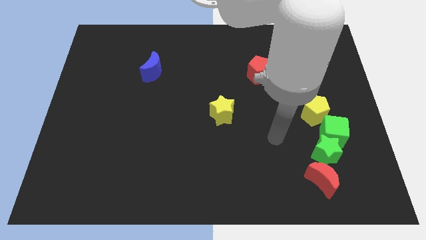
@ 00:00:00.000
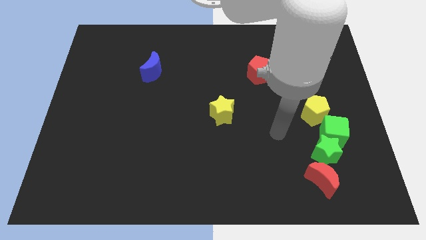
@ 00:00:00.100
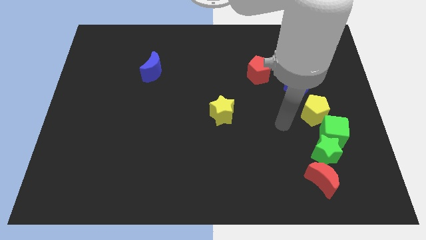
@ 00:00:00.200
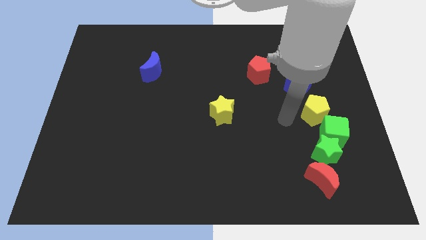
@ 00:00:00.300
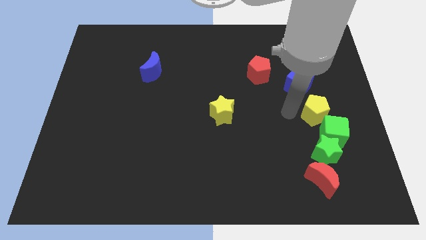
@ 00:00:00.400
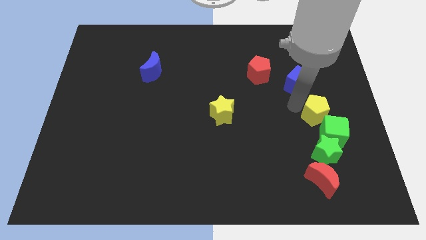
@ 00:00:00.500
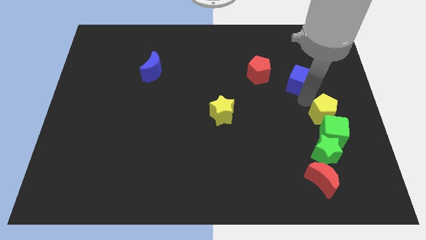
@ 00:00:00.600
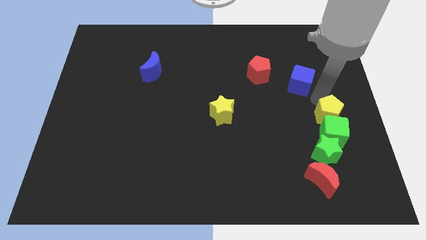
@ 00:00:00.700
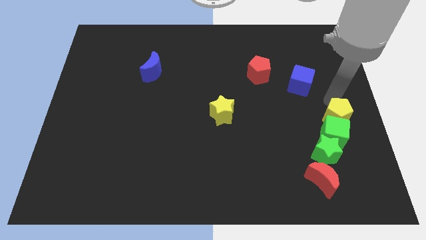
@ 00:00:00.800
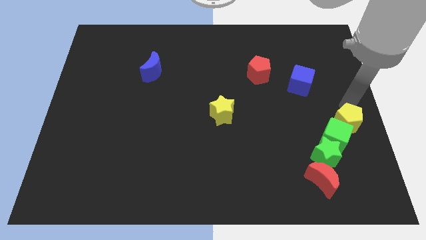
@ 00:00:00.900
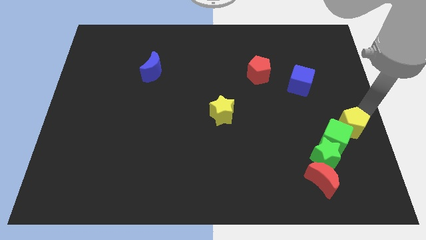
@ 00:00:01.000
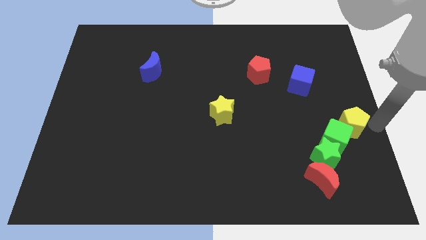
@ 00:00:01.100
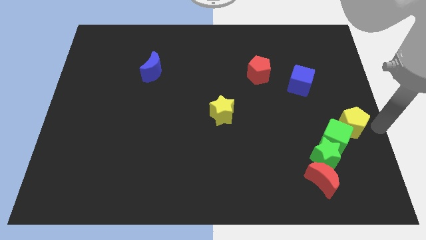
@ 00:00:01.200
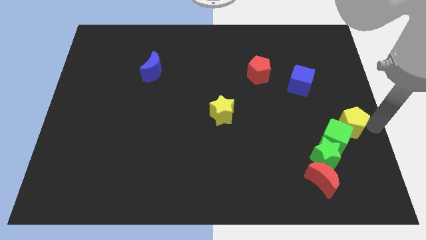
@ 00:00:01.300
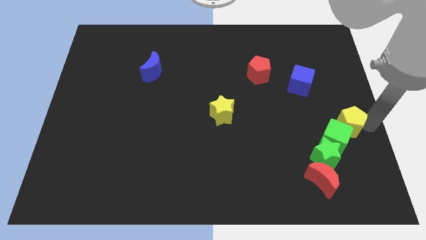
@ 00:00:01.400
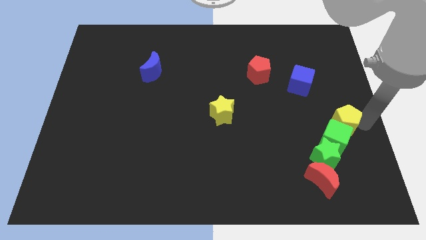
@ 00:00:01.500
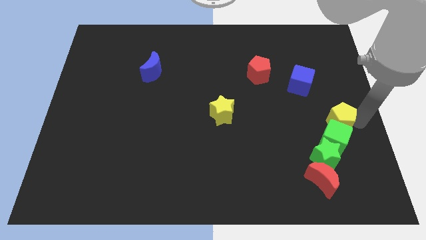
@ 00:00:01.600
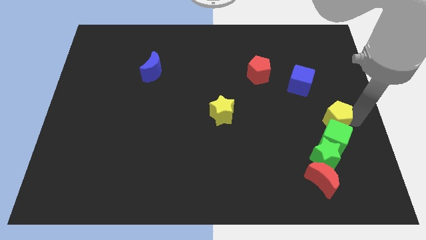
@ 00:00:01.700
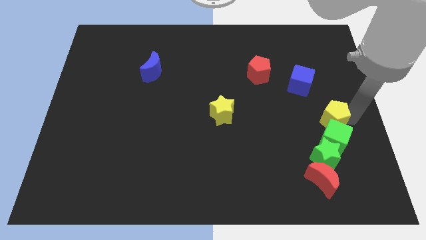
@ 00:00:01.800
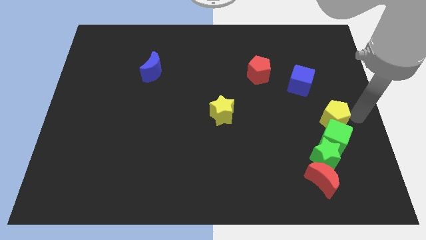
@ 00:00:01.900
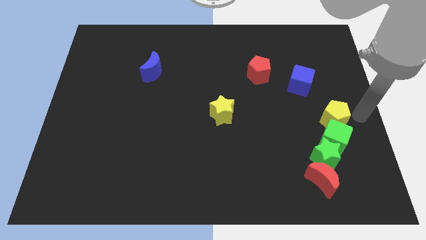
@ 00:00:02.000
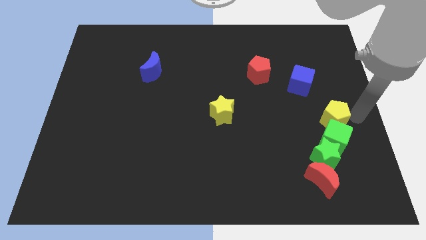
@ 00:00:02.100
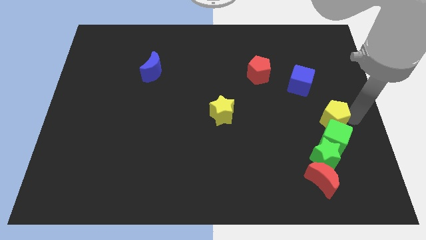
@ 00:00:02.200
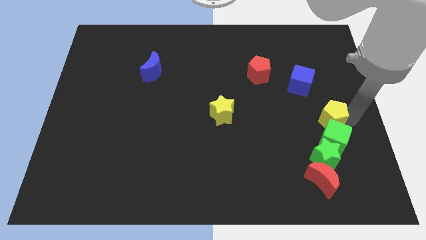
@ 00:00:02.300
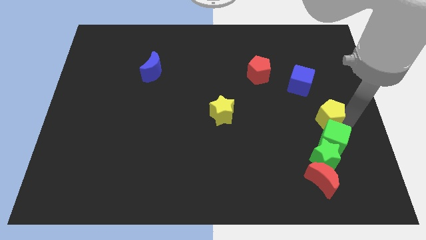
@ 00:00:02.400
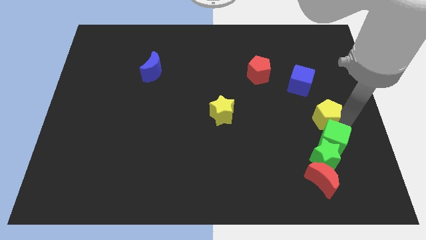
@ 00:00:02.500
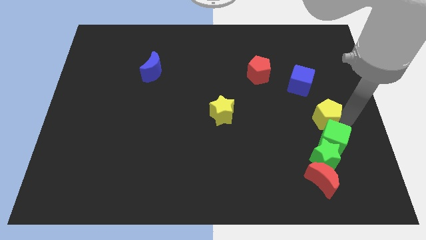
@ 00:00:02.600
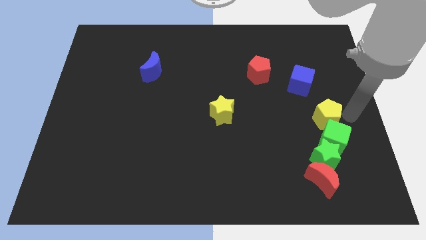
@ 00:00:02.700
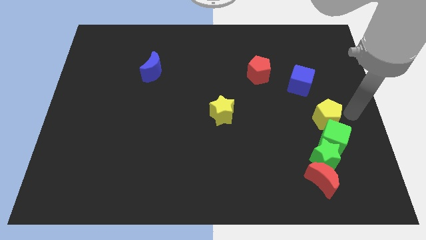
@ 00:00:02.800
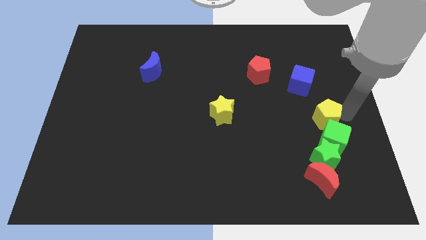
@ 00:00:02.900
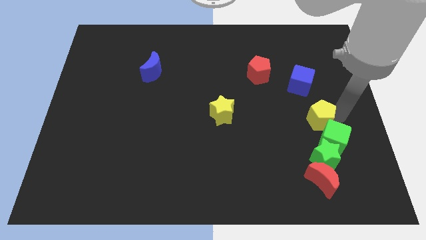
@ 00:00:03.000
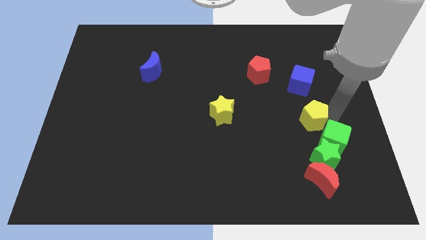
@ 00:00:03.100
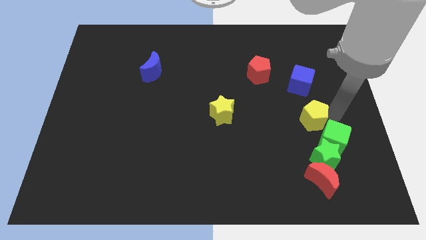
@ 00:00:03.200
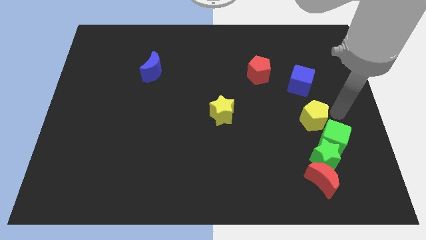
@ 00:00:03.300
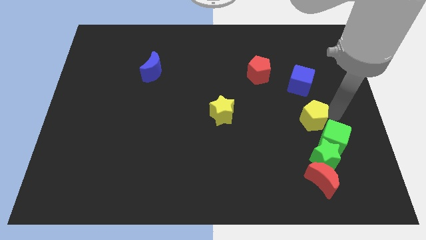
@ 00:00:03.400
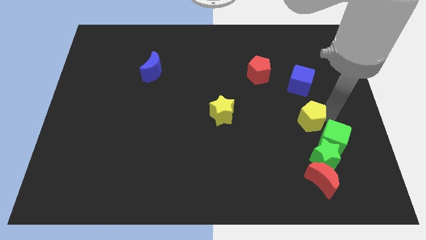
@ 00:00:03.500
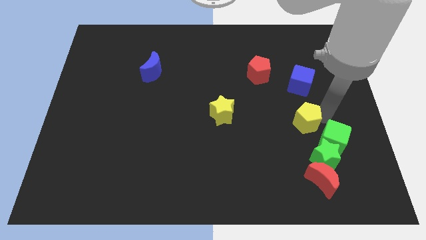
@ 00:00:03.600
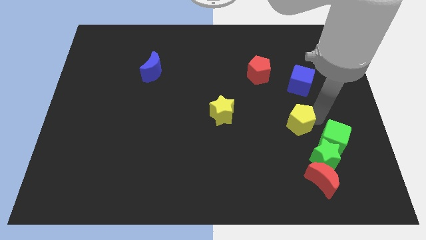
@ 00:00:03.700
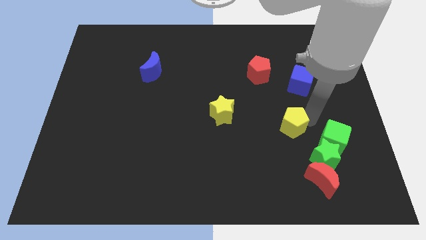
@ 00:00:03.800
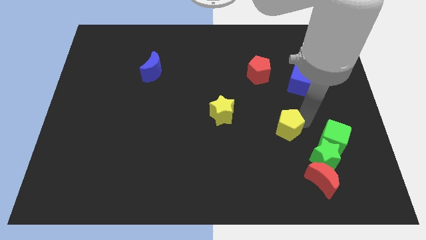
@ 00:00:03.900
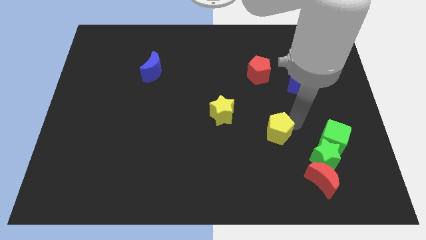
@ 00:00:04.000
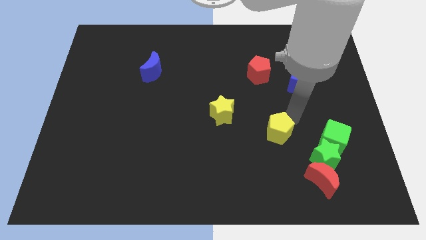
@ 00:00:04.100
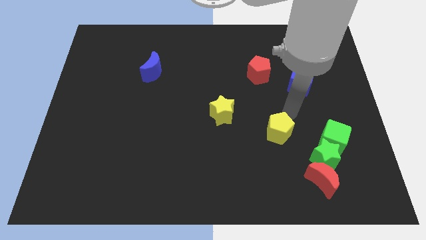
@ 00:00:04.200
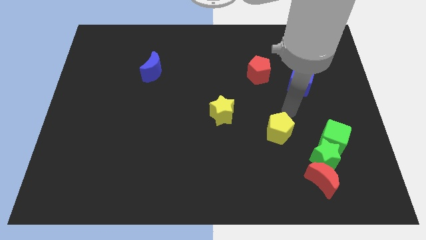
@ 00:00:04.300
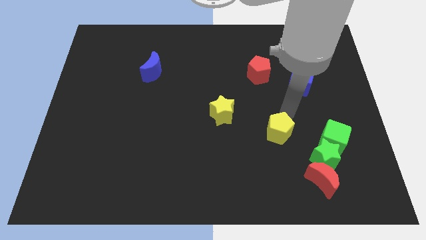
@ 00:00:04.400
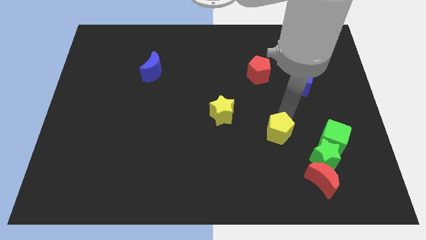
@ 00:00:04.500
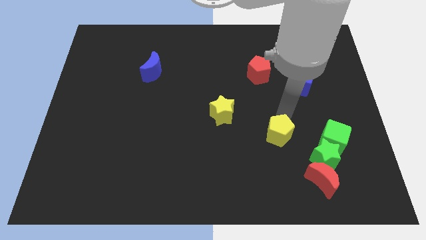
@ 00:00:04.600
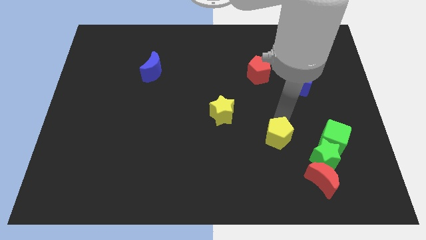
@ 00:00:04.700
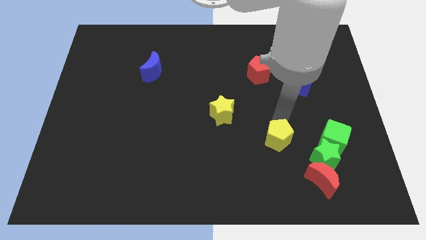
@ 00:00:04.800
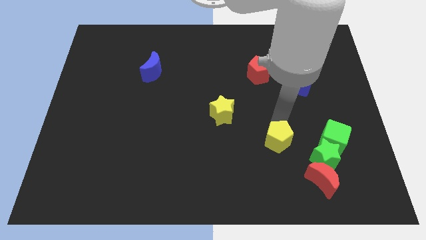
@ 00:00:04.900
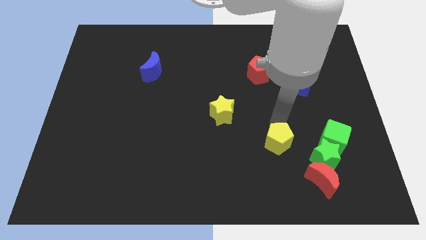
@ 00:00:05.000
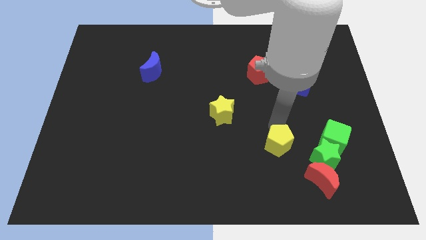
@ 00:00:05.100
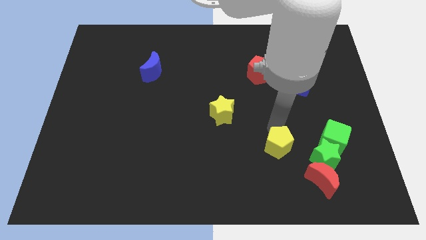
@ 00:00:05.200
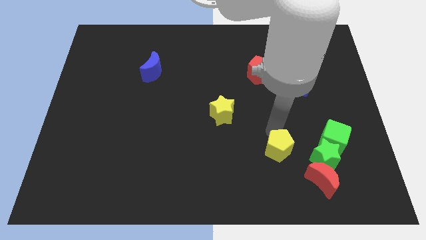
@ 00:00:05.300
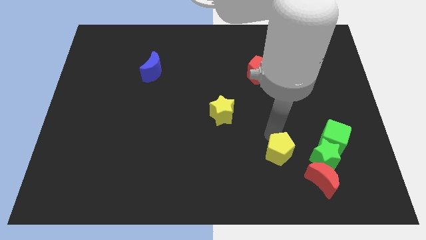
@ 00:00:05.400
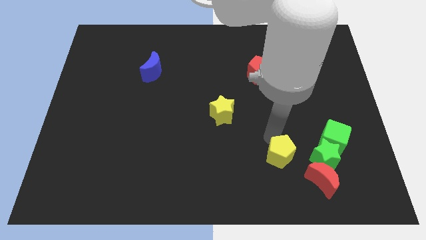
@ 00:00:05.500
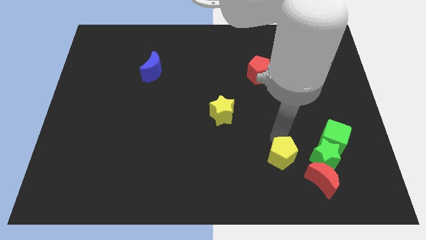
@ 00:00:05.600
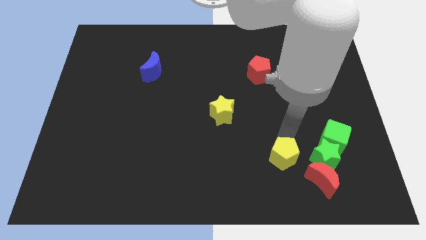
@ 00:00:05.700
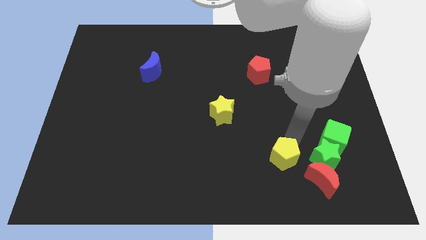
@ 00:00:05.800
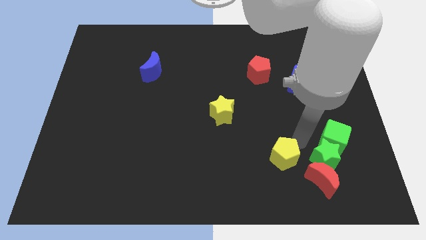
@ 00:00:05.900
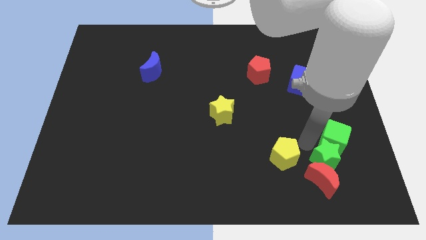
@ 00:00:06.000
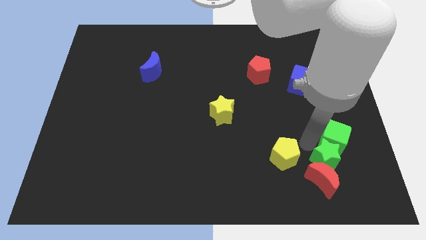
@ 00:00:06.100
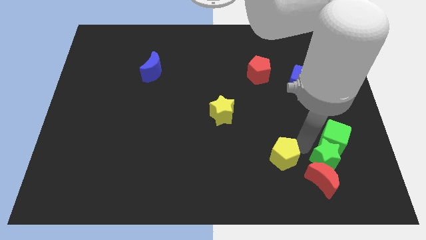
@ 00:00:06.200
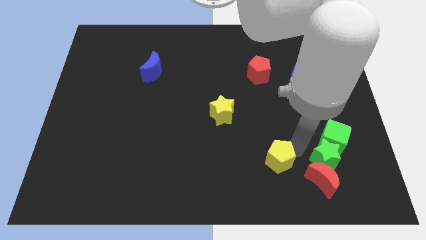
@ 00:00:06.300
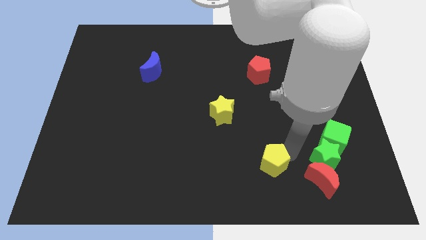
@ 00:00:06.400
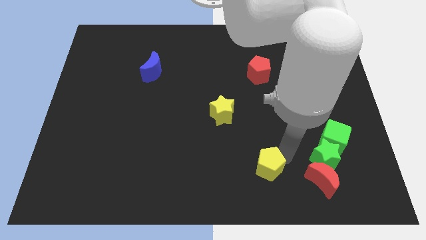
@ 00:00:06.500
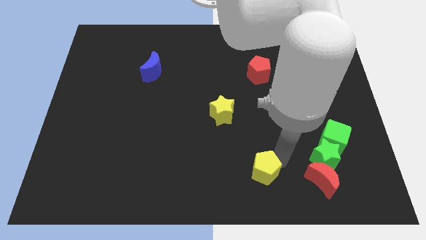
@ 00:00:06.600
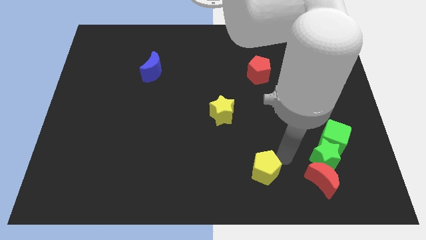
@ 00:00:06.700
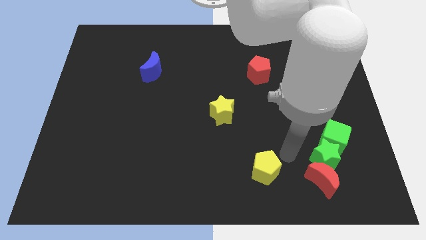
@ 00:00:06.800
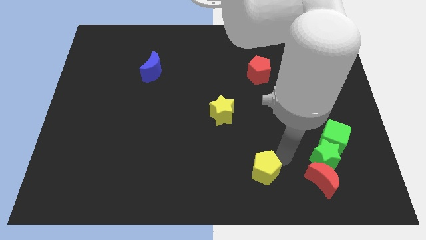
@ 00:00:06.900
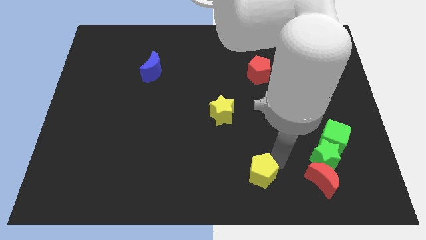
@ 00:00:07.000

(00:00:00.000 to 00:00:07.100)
push the yellow pentagon to the bottom side
